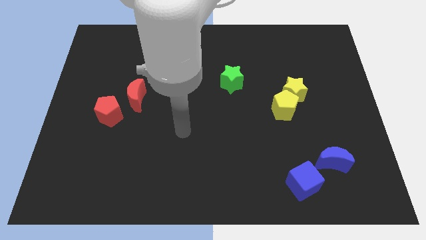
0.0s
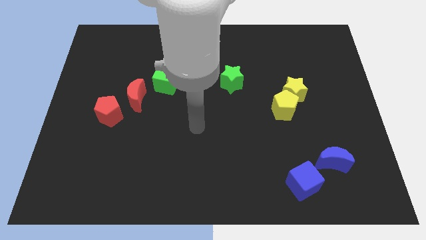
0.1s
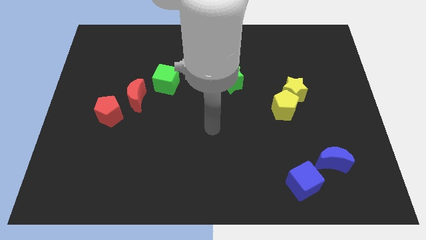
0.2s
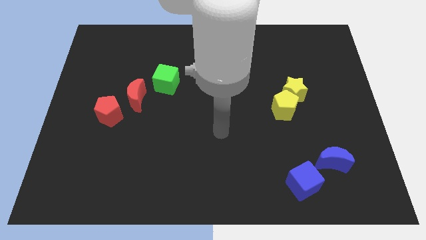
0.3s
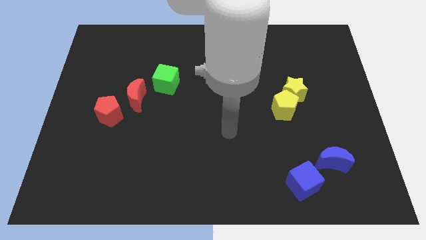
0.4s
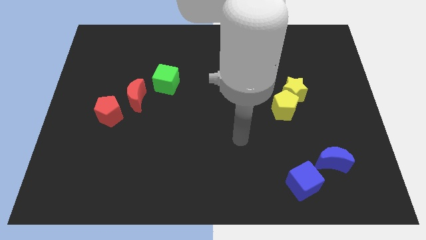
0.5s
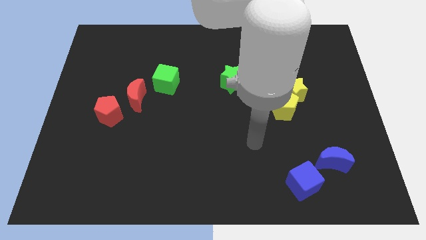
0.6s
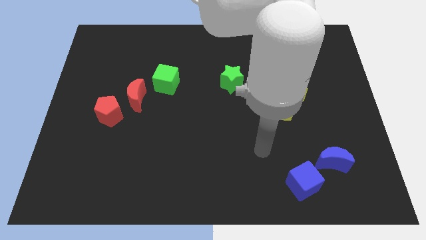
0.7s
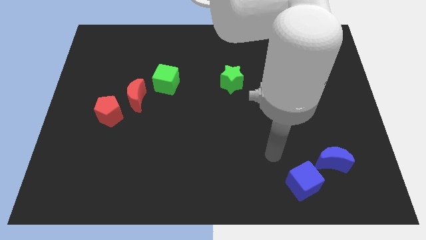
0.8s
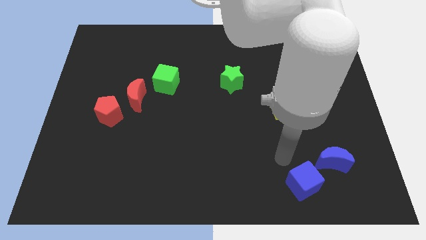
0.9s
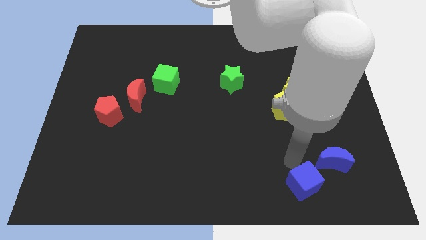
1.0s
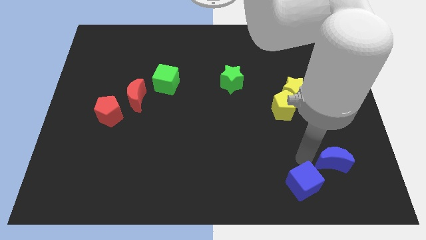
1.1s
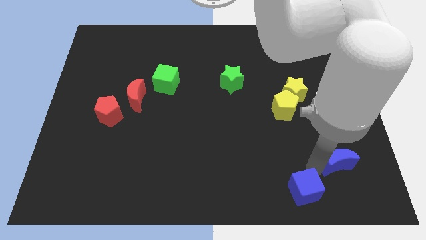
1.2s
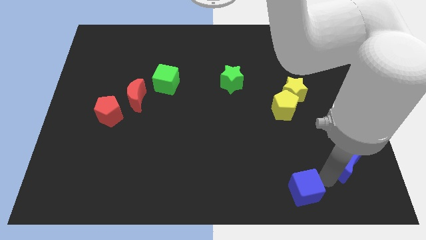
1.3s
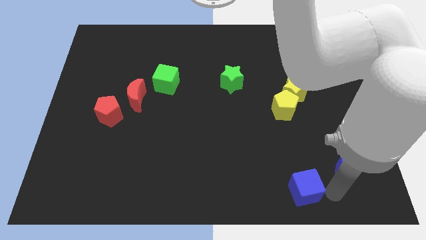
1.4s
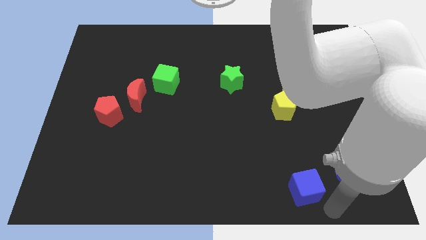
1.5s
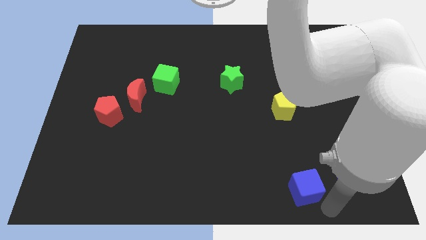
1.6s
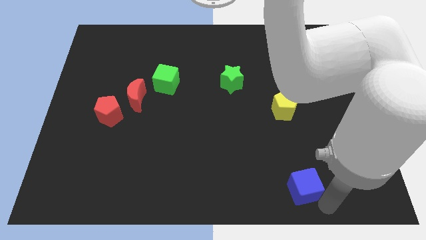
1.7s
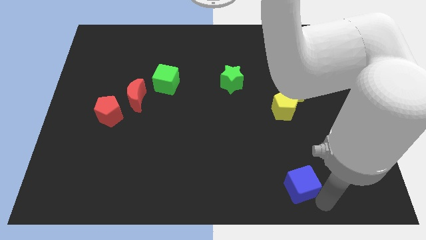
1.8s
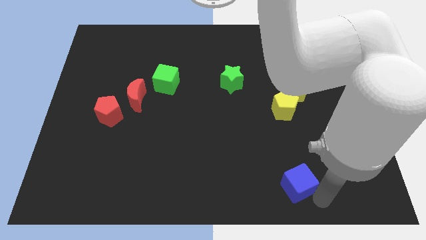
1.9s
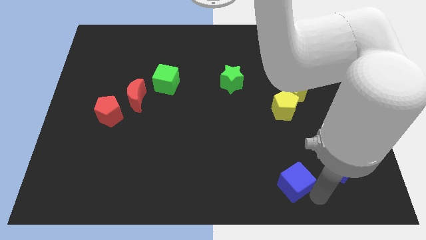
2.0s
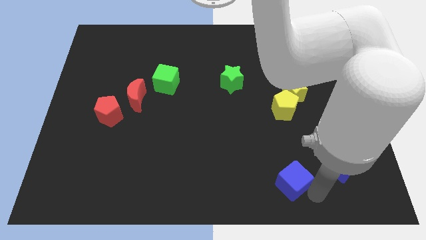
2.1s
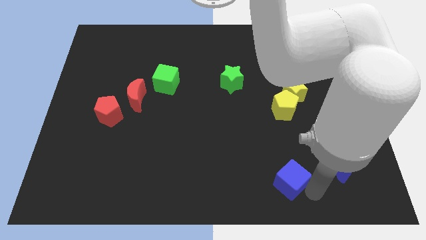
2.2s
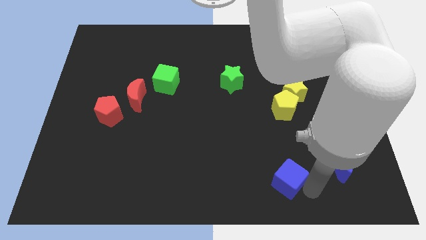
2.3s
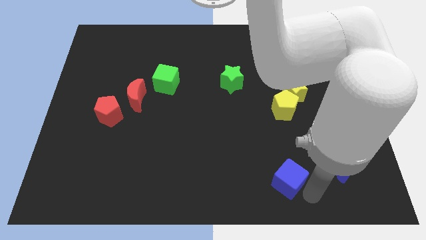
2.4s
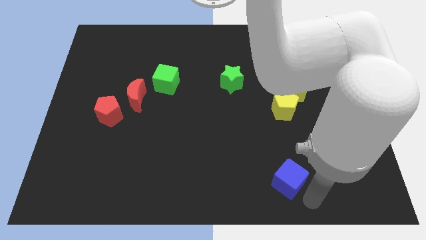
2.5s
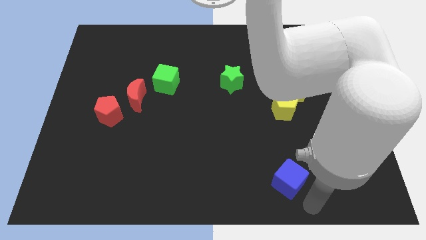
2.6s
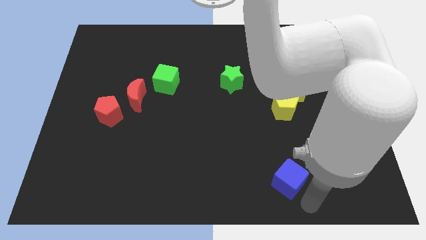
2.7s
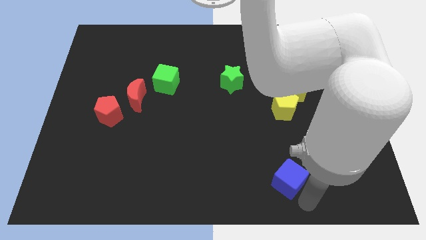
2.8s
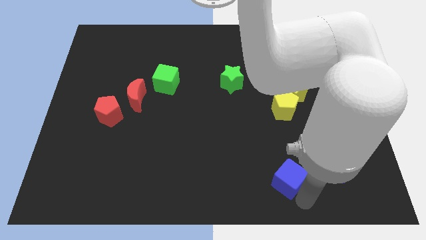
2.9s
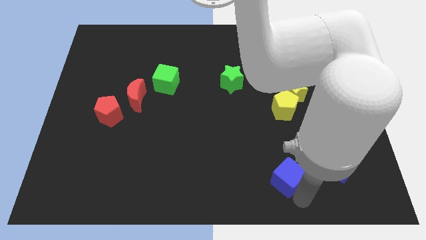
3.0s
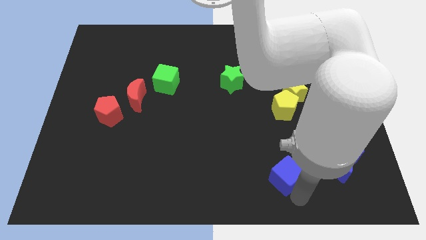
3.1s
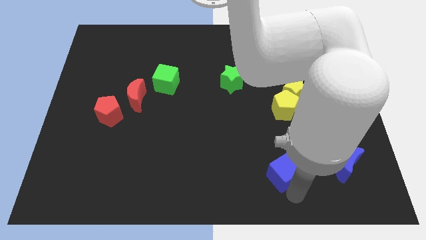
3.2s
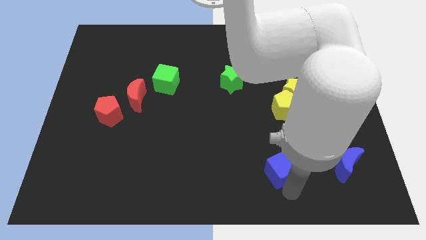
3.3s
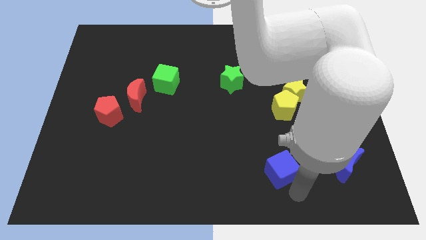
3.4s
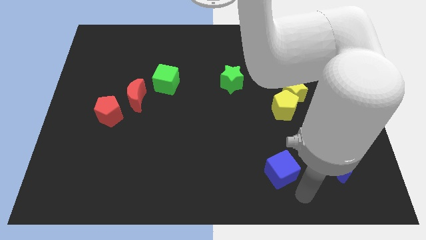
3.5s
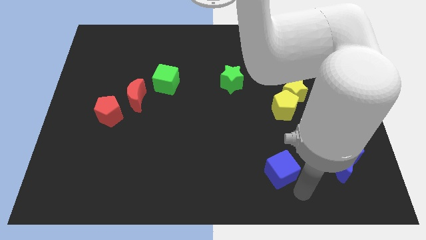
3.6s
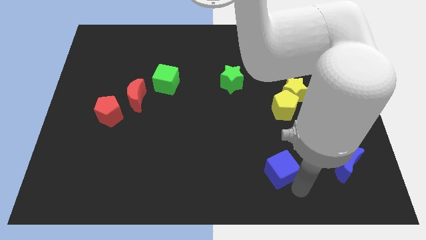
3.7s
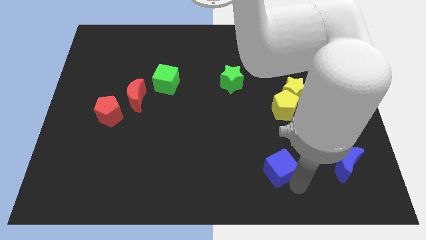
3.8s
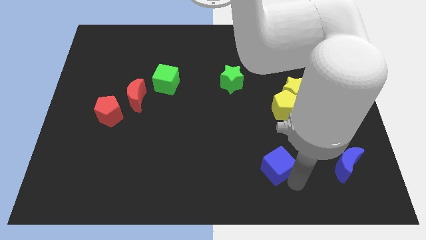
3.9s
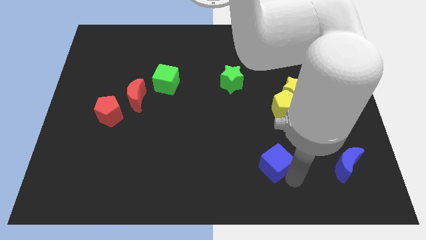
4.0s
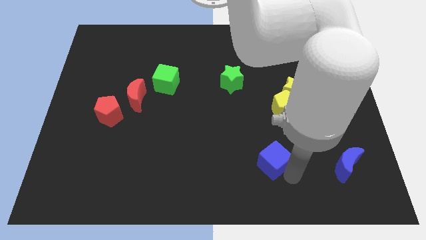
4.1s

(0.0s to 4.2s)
slide the blue cube a little upwards and to the left diagonally

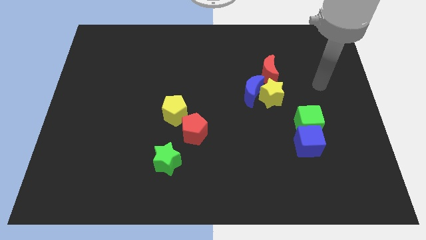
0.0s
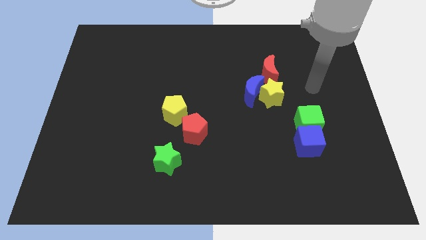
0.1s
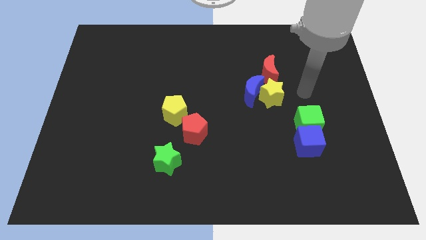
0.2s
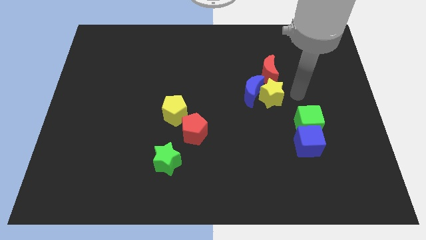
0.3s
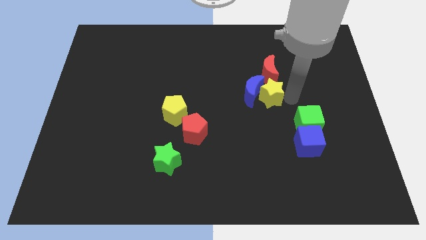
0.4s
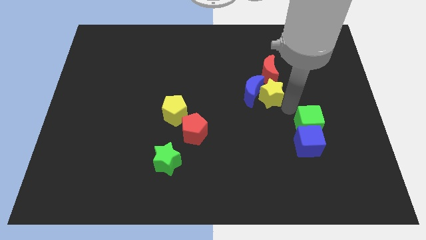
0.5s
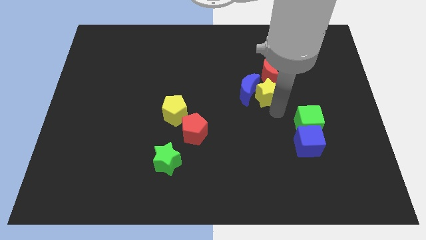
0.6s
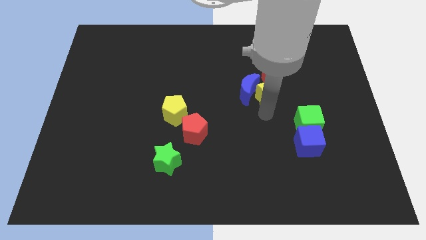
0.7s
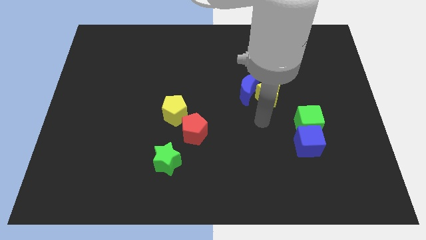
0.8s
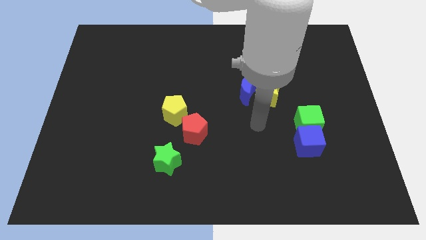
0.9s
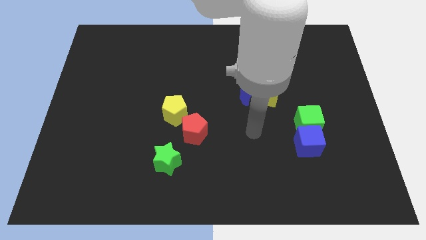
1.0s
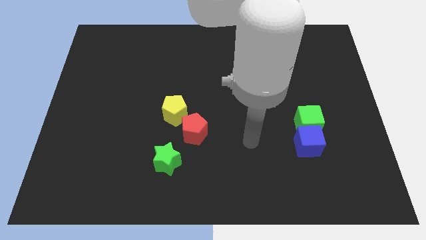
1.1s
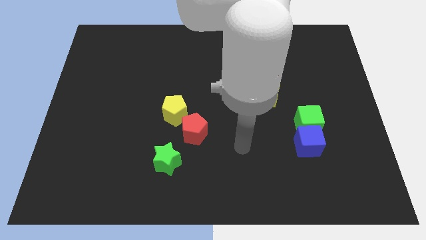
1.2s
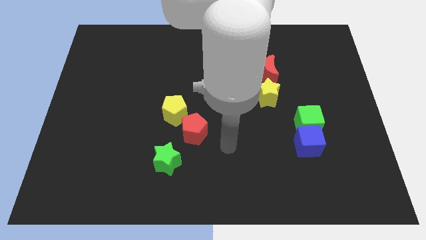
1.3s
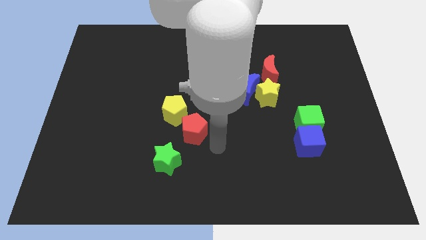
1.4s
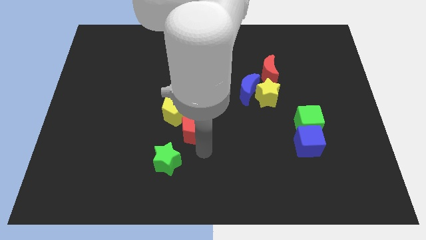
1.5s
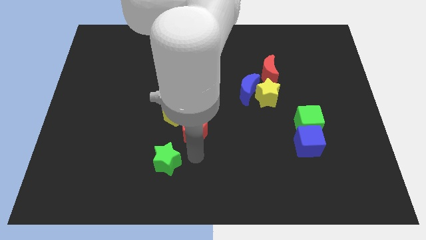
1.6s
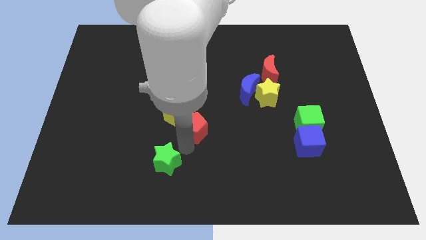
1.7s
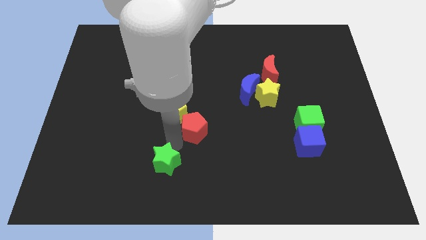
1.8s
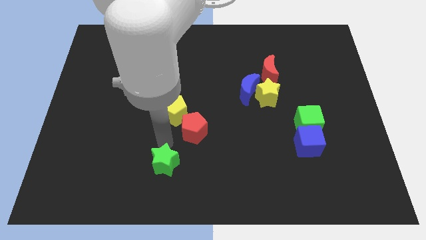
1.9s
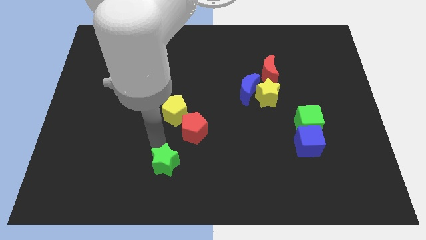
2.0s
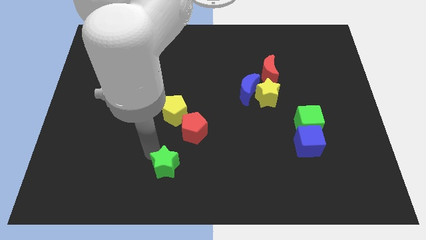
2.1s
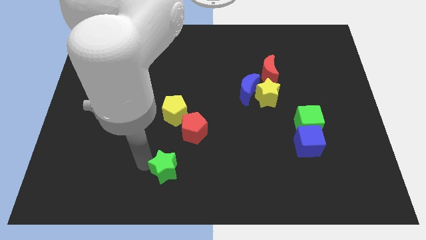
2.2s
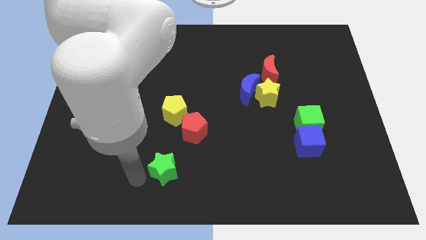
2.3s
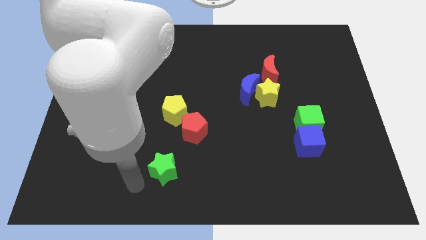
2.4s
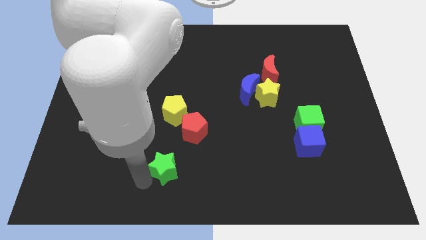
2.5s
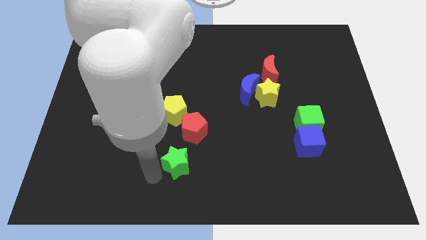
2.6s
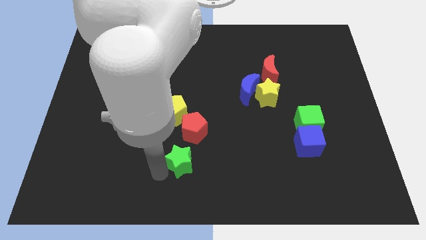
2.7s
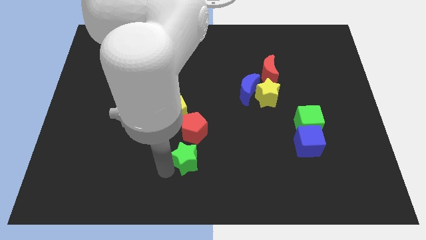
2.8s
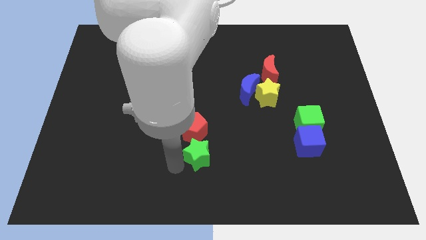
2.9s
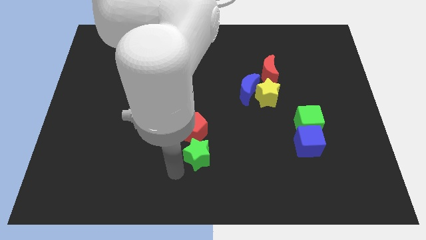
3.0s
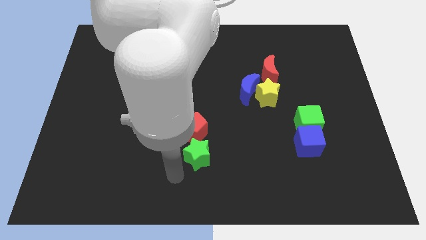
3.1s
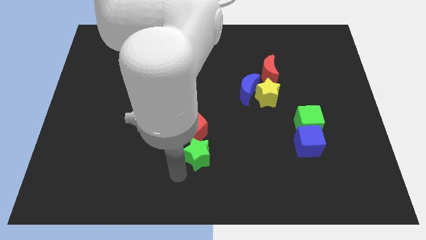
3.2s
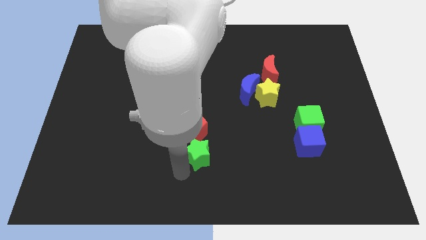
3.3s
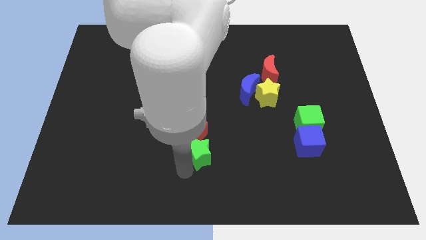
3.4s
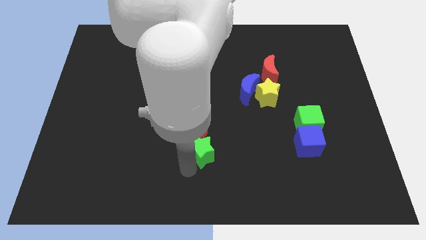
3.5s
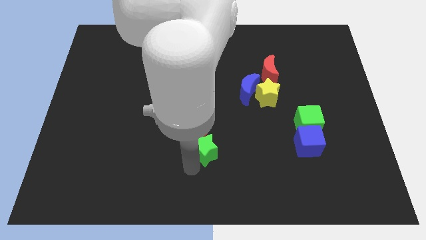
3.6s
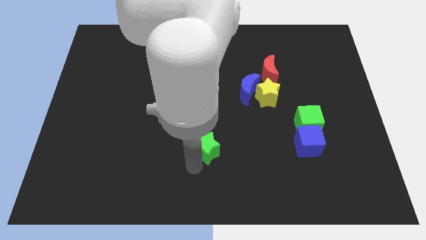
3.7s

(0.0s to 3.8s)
slide the green star a bit up and to the right
